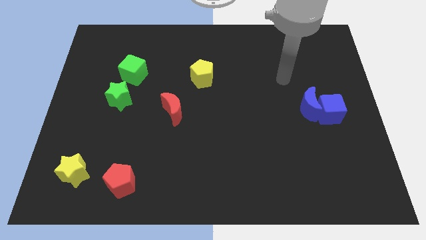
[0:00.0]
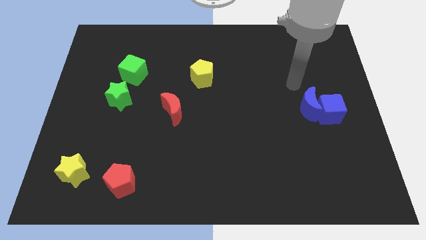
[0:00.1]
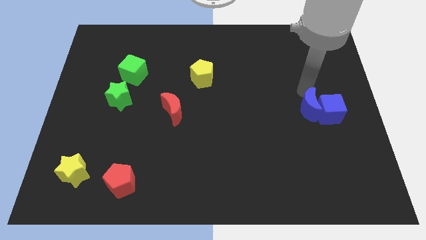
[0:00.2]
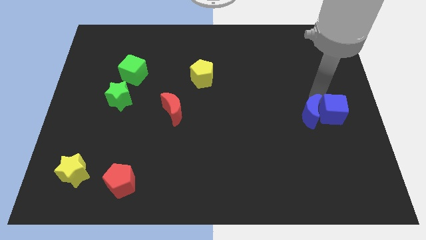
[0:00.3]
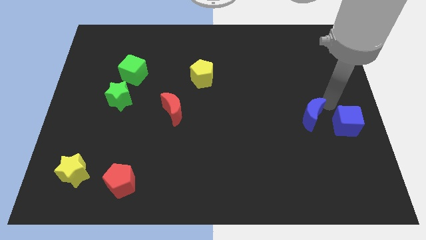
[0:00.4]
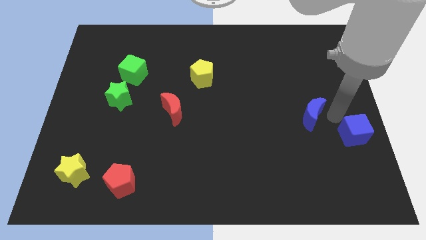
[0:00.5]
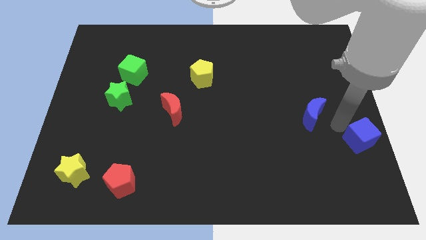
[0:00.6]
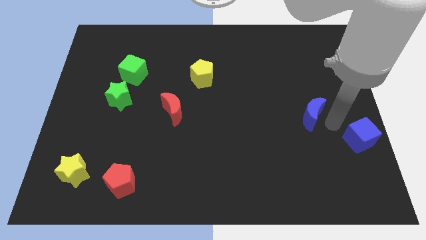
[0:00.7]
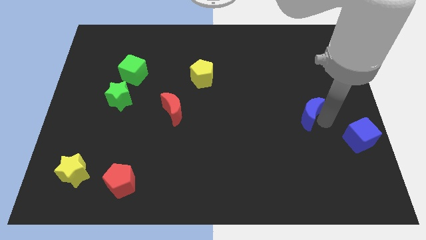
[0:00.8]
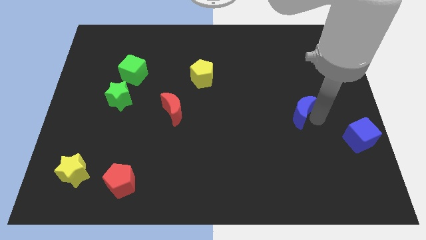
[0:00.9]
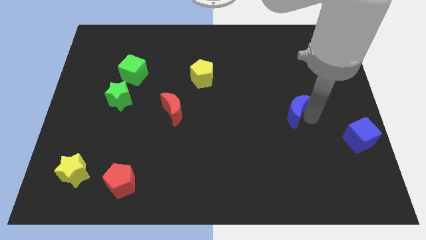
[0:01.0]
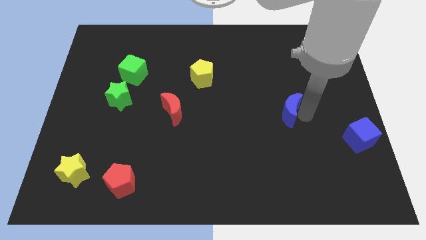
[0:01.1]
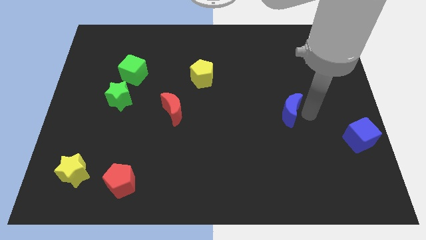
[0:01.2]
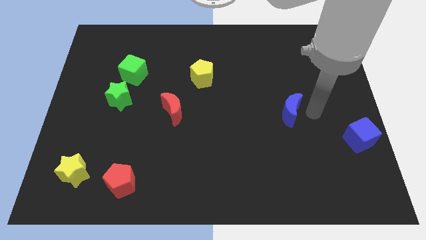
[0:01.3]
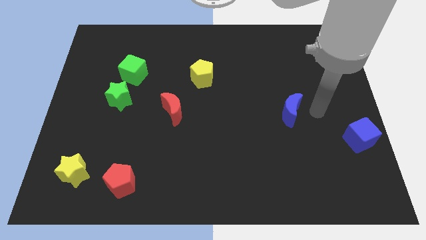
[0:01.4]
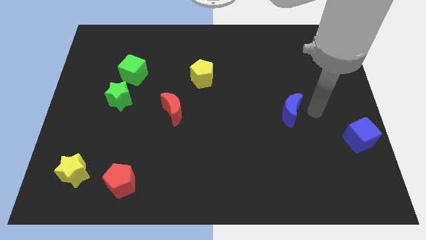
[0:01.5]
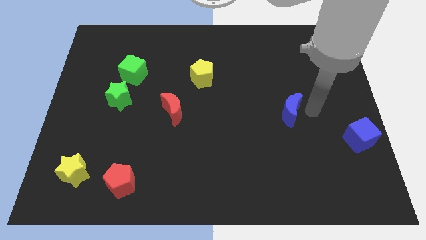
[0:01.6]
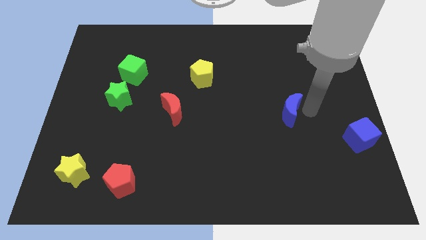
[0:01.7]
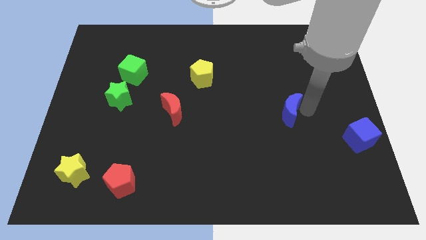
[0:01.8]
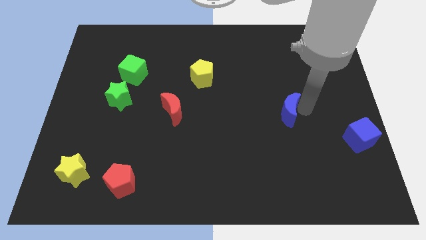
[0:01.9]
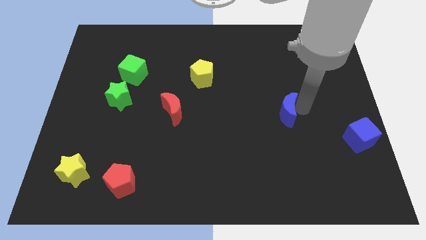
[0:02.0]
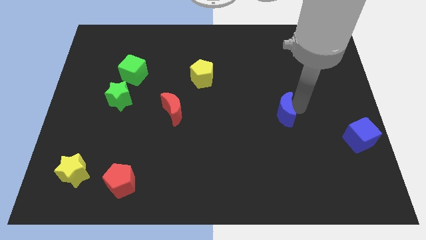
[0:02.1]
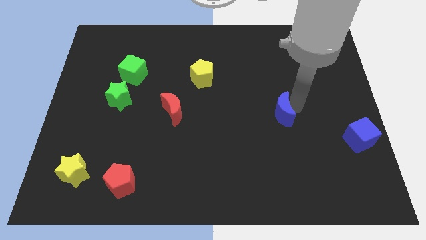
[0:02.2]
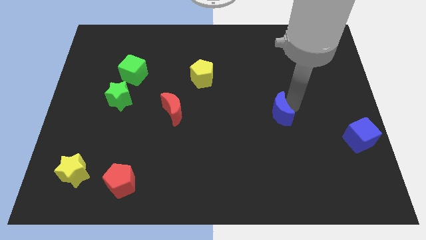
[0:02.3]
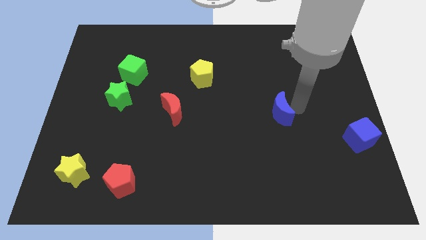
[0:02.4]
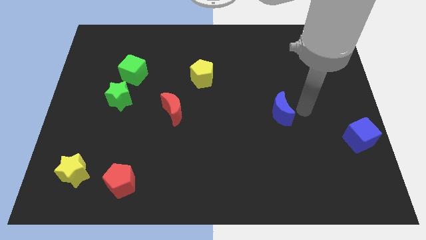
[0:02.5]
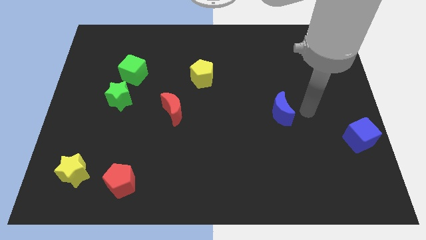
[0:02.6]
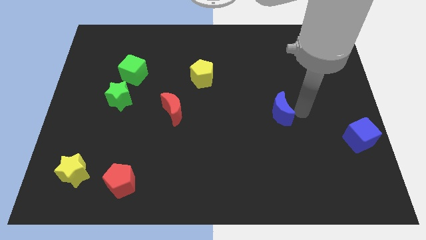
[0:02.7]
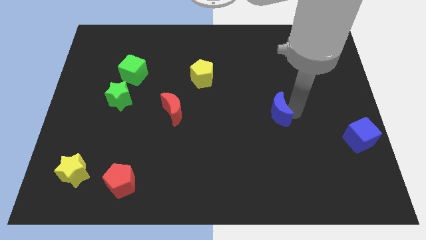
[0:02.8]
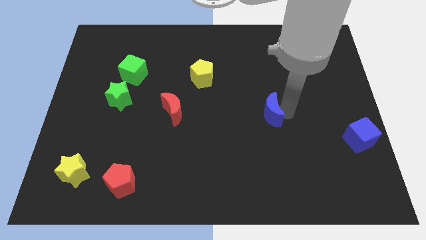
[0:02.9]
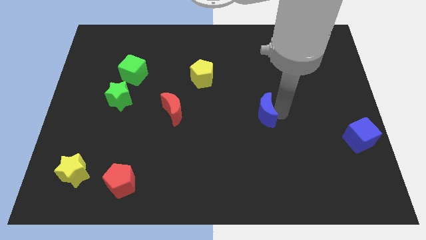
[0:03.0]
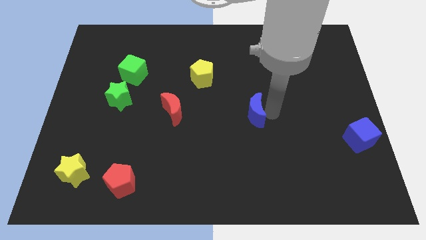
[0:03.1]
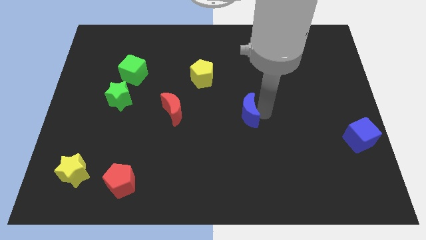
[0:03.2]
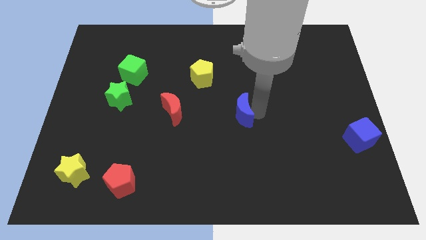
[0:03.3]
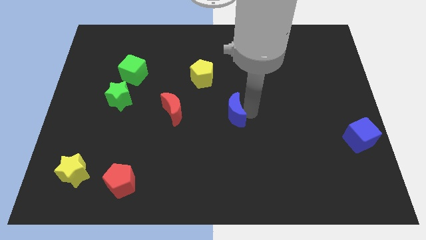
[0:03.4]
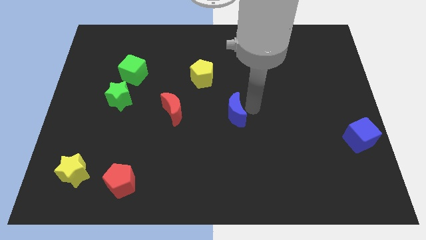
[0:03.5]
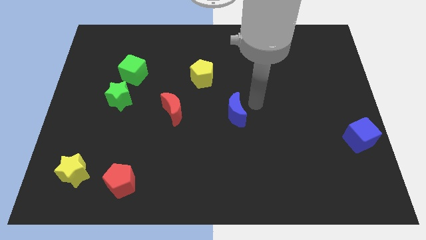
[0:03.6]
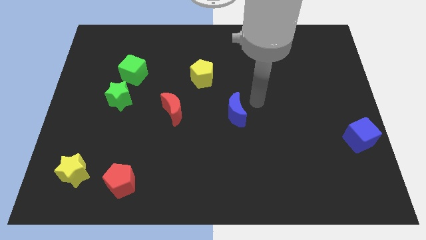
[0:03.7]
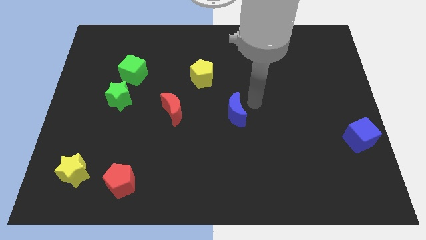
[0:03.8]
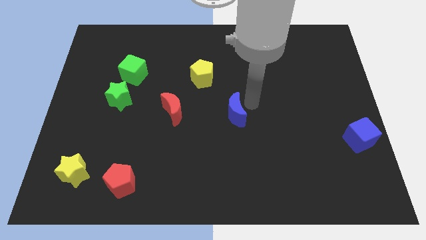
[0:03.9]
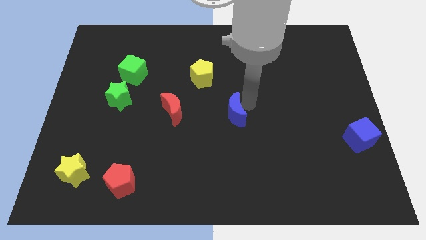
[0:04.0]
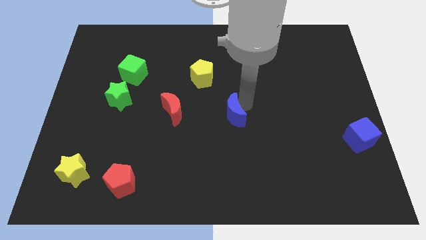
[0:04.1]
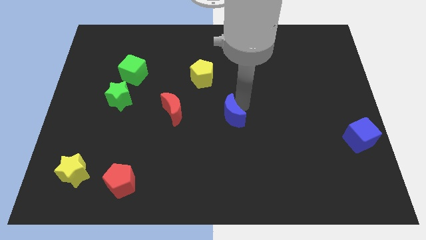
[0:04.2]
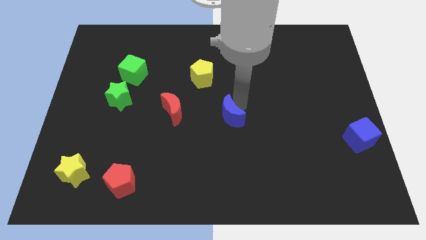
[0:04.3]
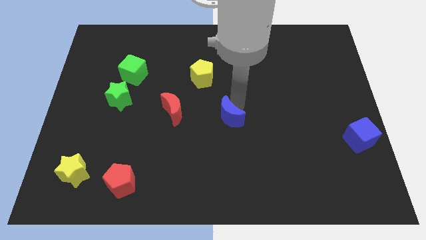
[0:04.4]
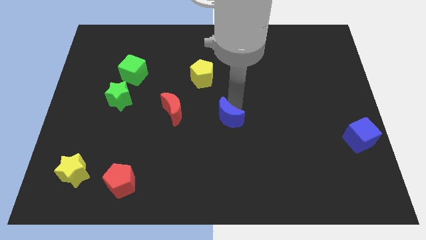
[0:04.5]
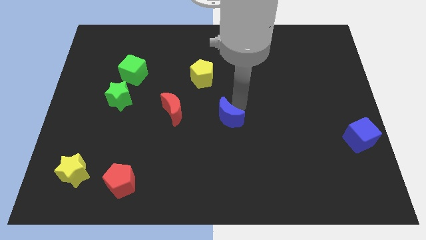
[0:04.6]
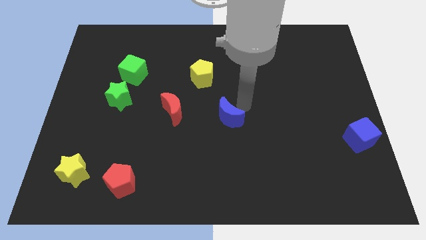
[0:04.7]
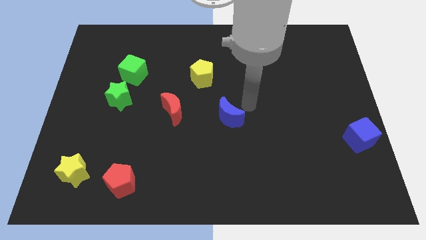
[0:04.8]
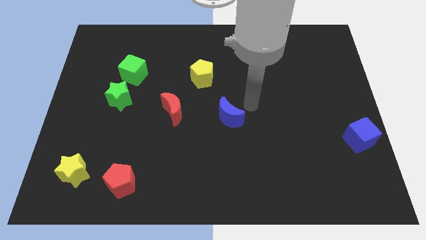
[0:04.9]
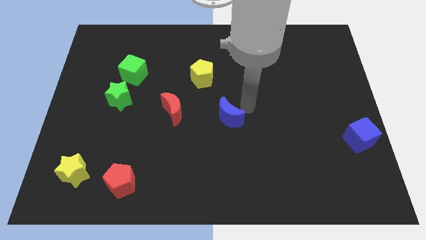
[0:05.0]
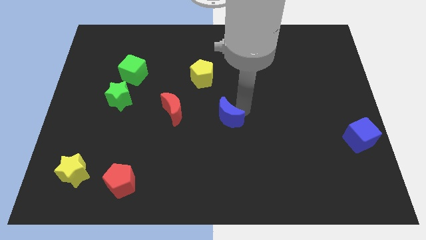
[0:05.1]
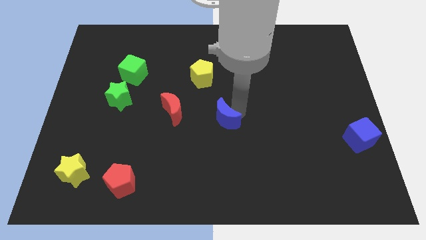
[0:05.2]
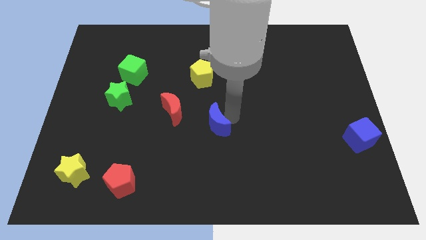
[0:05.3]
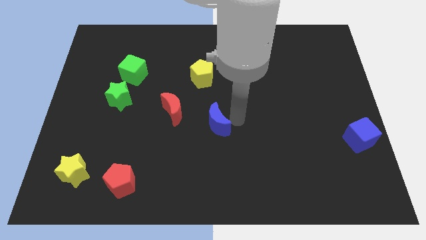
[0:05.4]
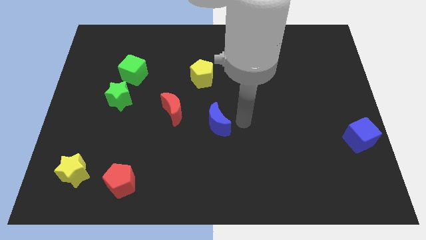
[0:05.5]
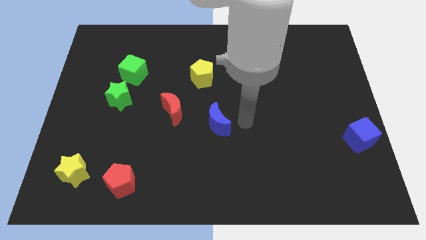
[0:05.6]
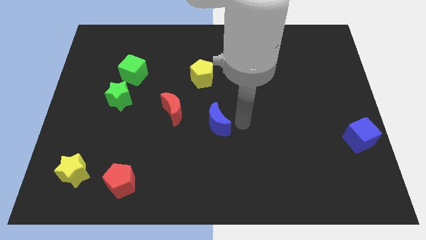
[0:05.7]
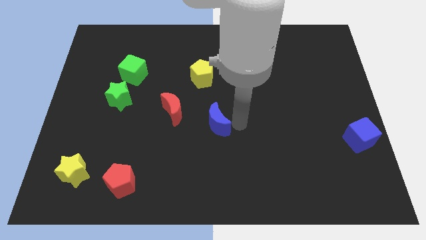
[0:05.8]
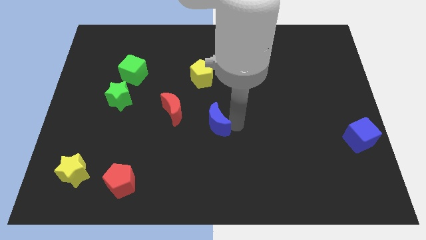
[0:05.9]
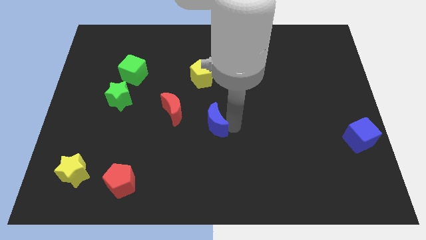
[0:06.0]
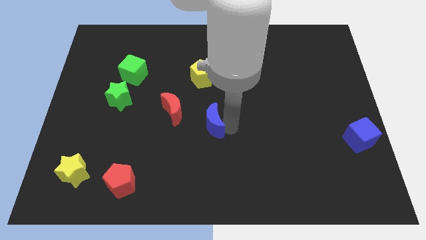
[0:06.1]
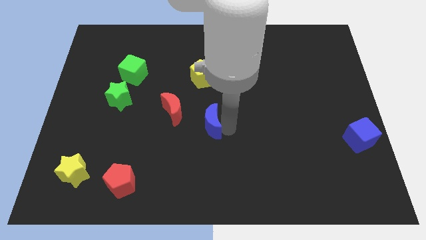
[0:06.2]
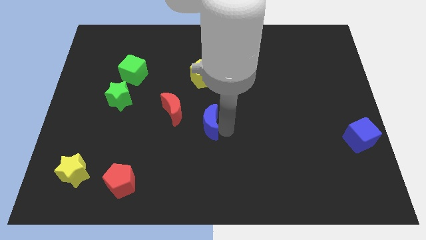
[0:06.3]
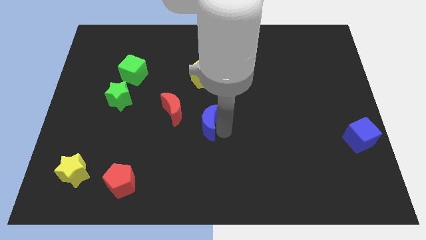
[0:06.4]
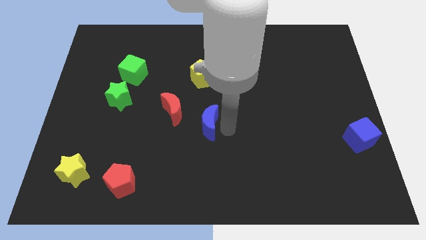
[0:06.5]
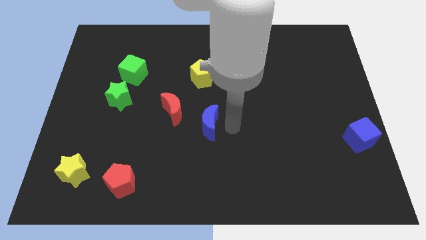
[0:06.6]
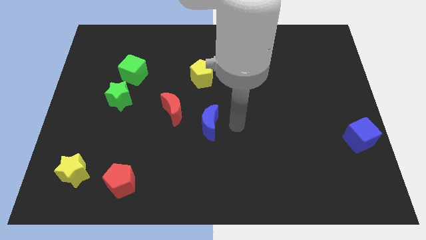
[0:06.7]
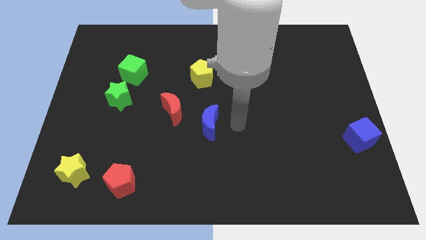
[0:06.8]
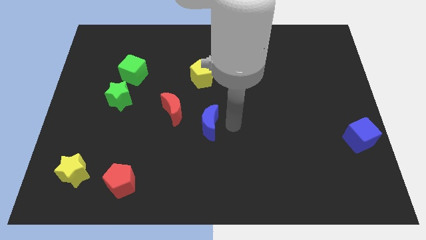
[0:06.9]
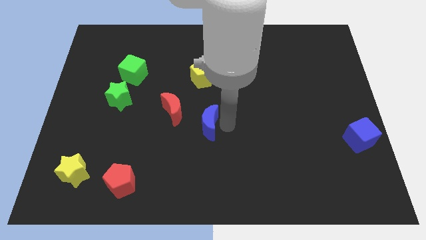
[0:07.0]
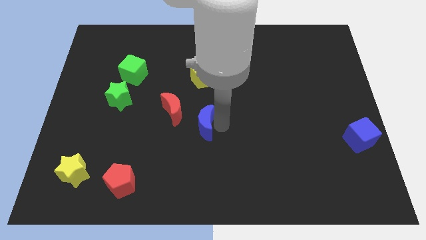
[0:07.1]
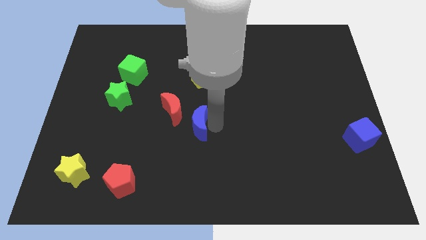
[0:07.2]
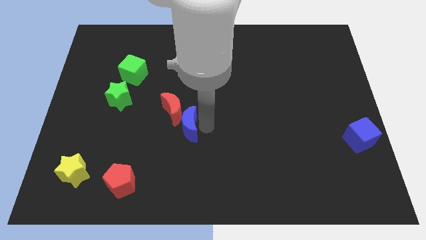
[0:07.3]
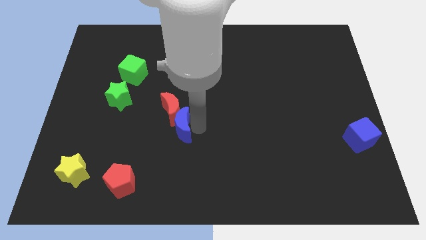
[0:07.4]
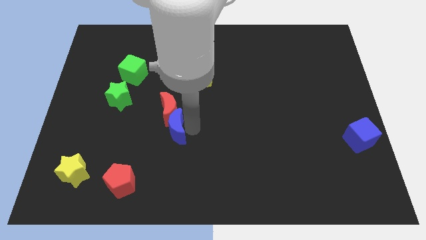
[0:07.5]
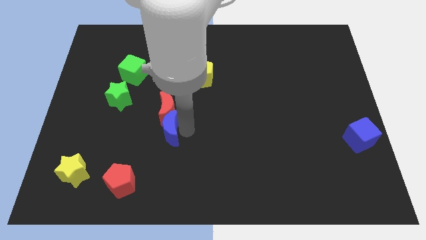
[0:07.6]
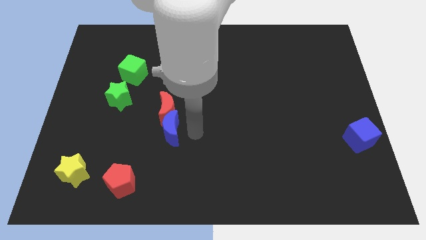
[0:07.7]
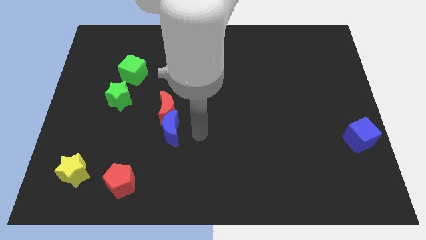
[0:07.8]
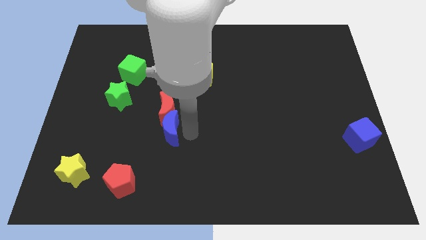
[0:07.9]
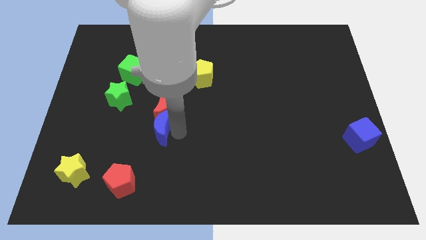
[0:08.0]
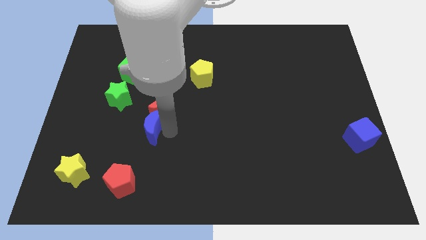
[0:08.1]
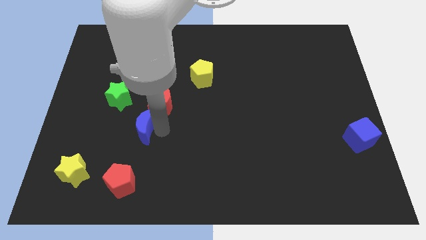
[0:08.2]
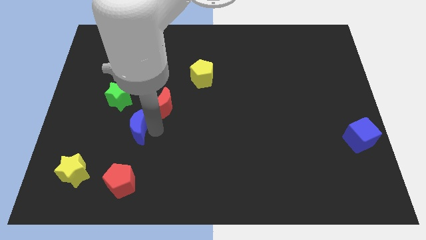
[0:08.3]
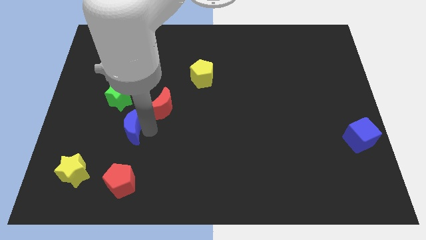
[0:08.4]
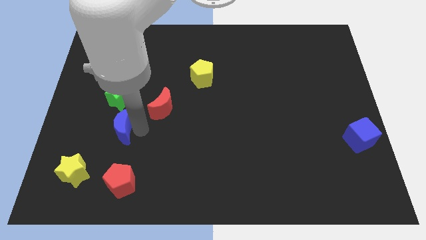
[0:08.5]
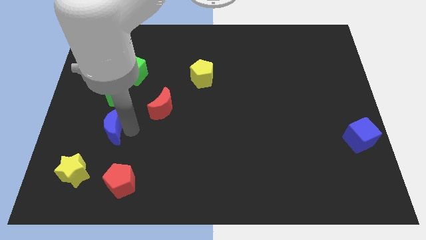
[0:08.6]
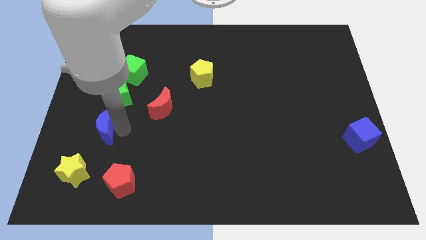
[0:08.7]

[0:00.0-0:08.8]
put the blue moon to the top of the yellow star
